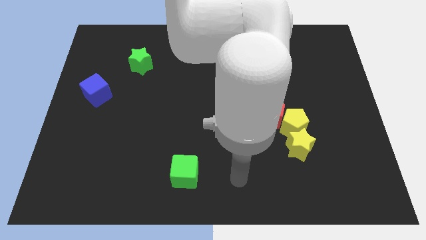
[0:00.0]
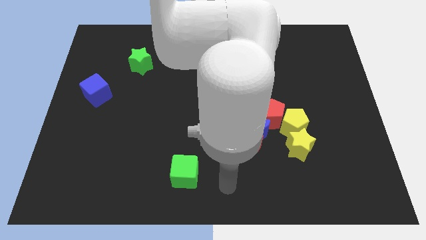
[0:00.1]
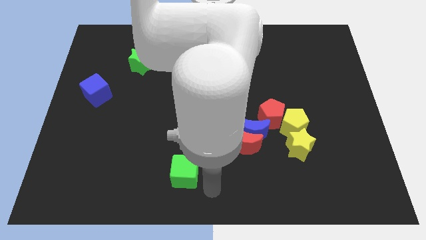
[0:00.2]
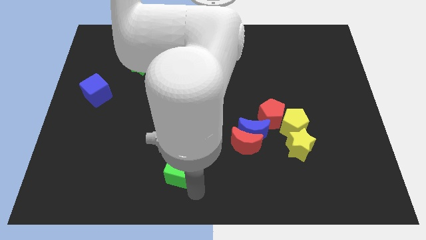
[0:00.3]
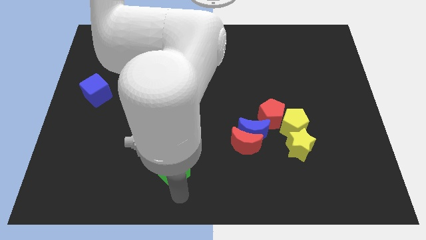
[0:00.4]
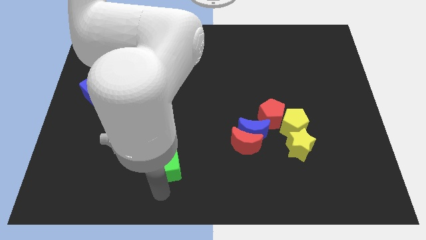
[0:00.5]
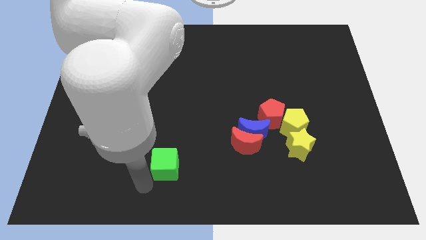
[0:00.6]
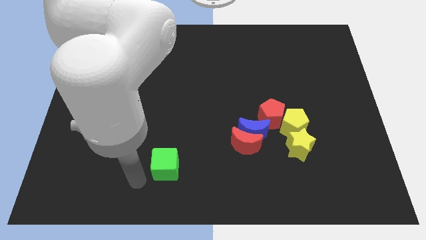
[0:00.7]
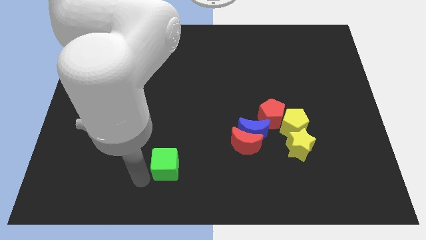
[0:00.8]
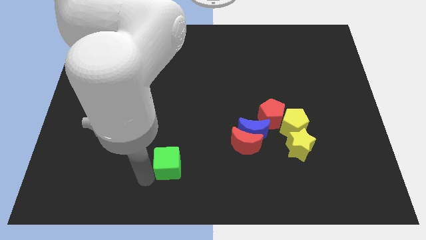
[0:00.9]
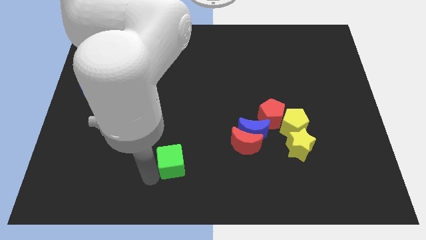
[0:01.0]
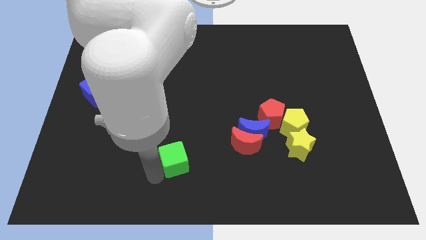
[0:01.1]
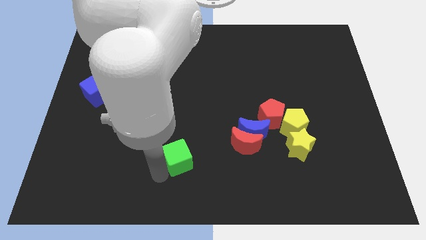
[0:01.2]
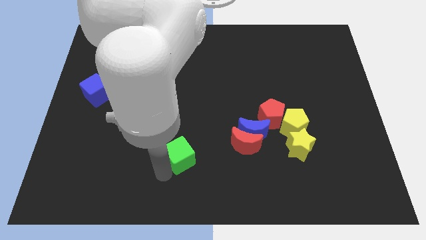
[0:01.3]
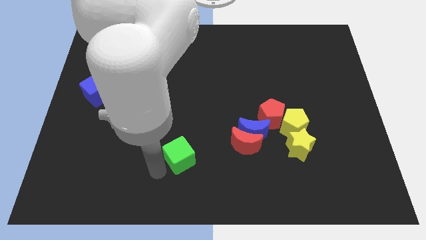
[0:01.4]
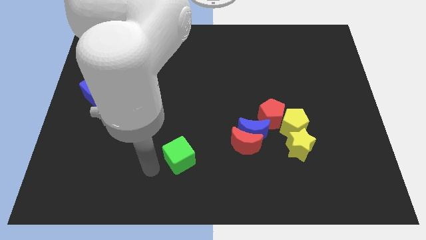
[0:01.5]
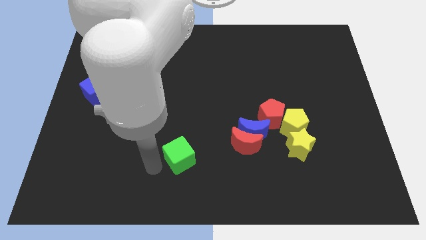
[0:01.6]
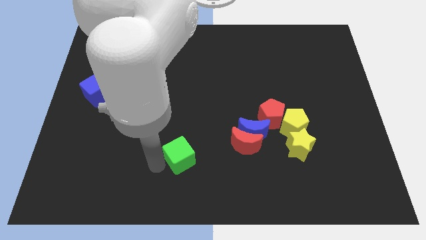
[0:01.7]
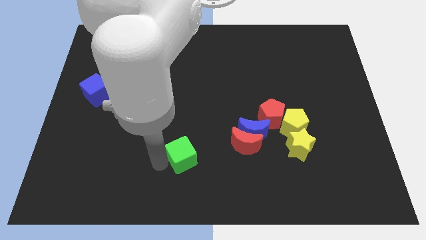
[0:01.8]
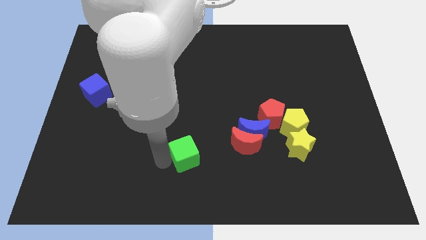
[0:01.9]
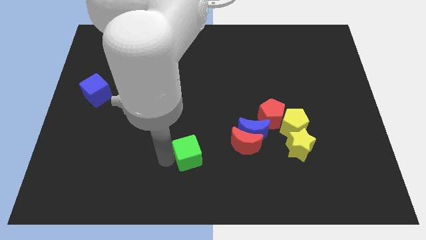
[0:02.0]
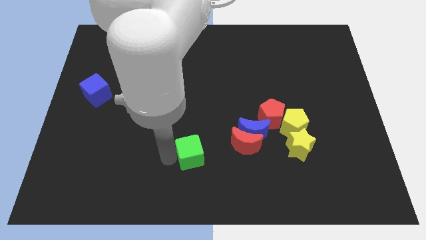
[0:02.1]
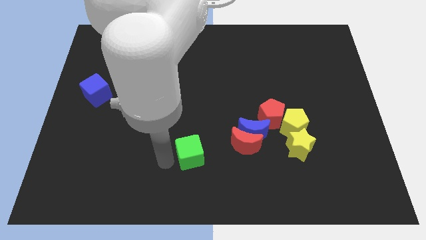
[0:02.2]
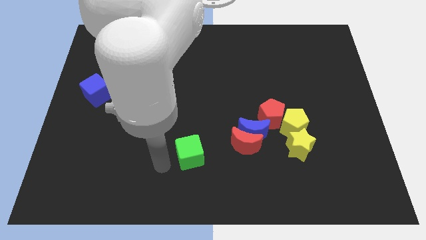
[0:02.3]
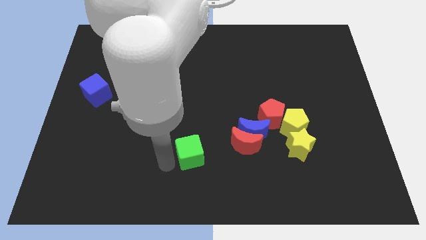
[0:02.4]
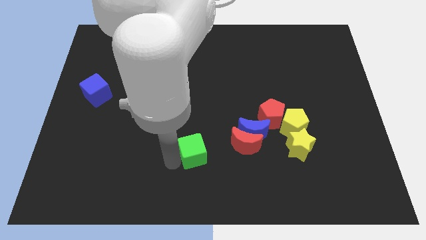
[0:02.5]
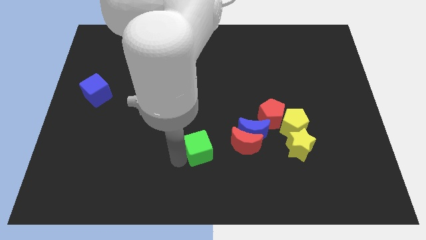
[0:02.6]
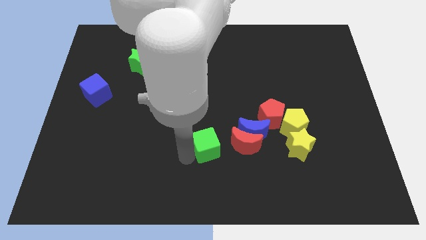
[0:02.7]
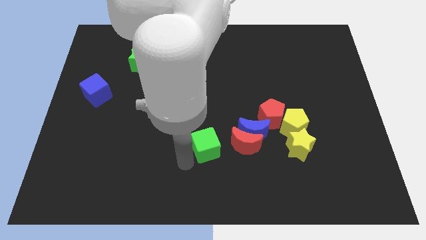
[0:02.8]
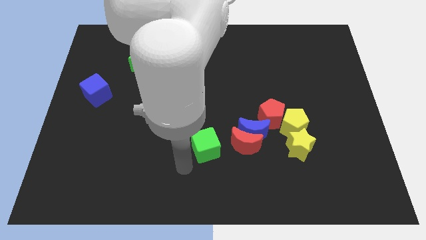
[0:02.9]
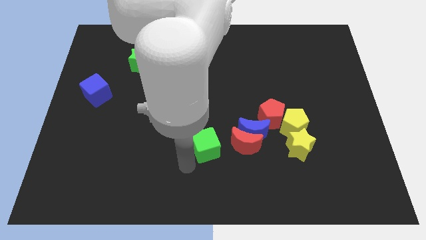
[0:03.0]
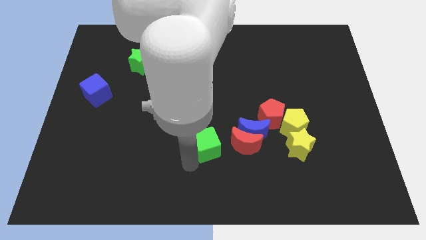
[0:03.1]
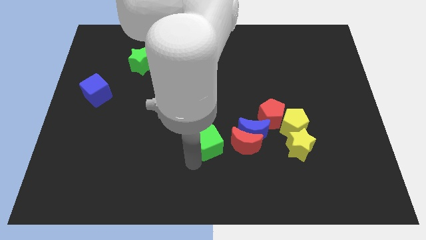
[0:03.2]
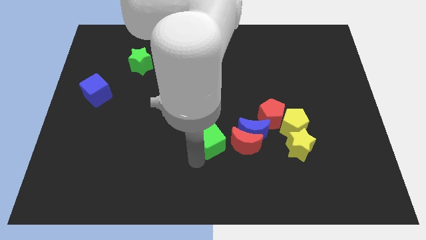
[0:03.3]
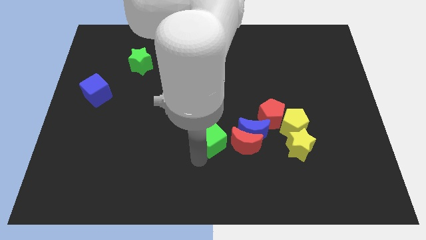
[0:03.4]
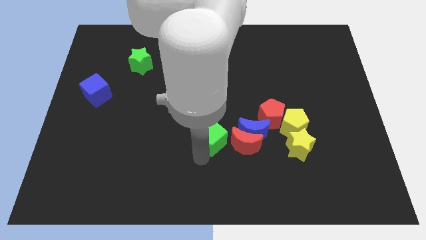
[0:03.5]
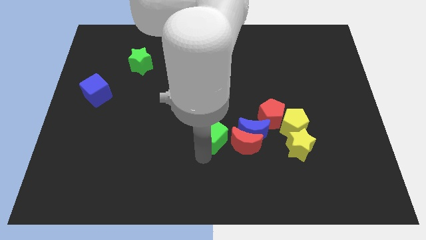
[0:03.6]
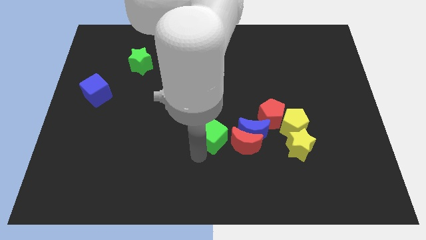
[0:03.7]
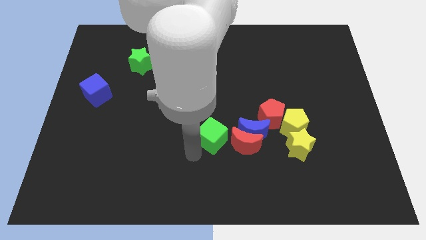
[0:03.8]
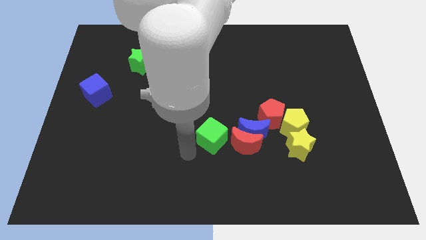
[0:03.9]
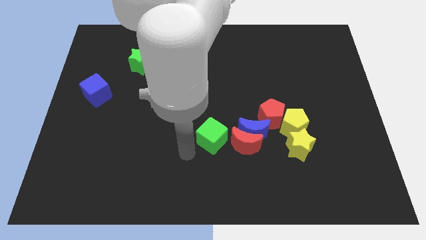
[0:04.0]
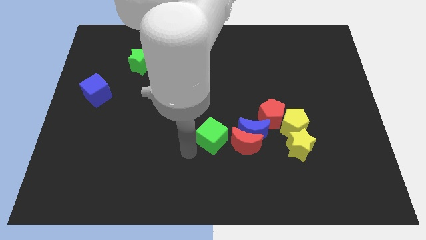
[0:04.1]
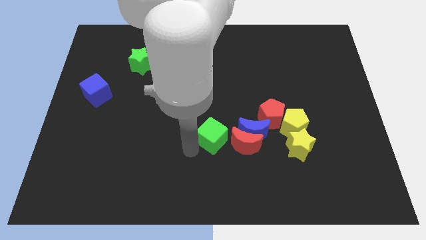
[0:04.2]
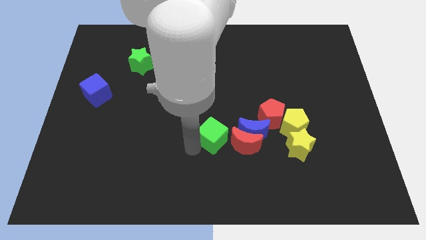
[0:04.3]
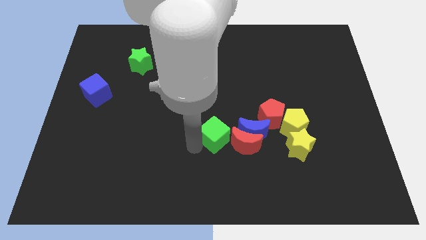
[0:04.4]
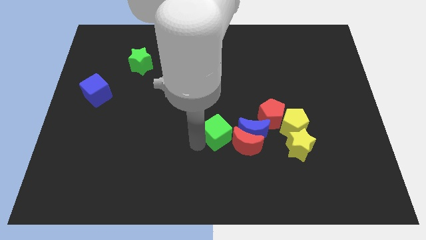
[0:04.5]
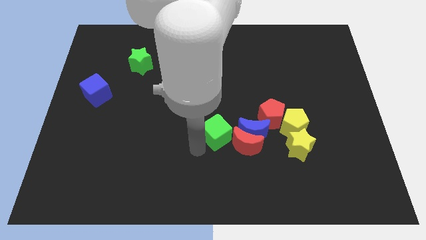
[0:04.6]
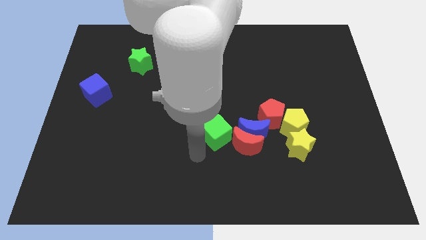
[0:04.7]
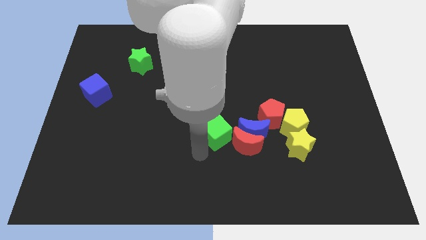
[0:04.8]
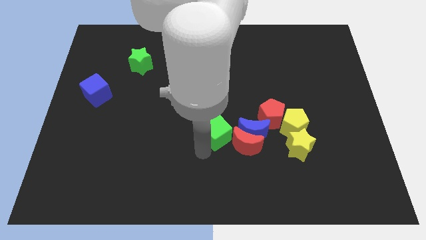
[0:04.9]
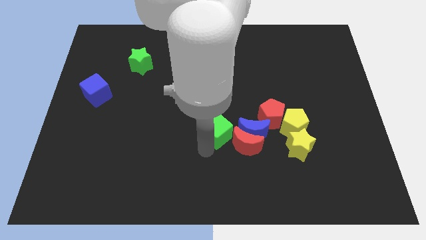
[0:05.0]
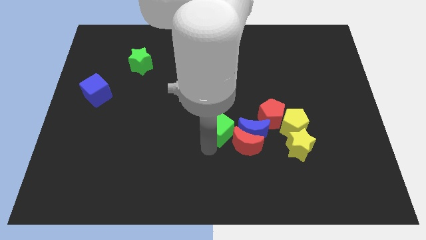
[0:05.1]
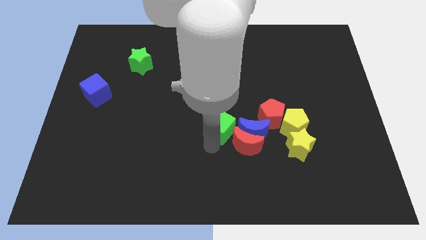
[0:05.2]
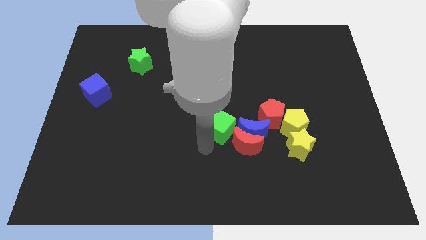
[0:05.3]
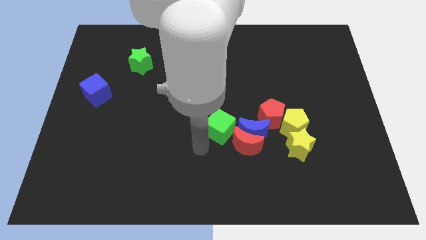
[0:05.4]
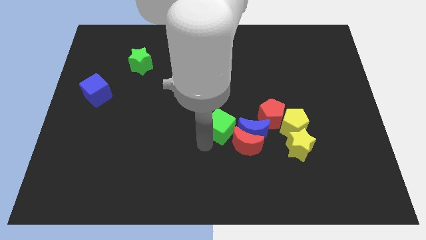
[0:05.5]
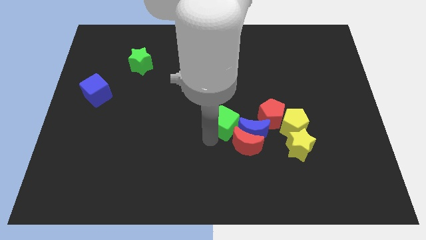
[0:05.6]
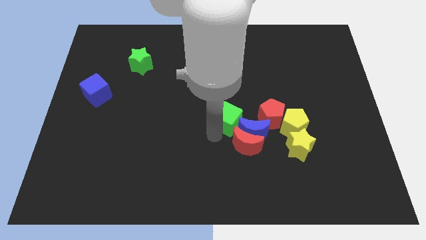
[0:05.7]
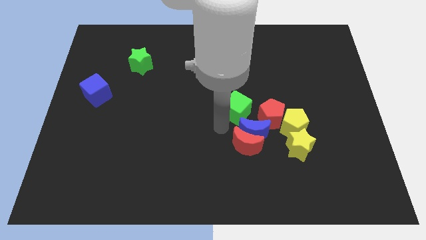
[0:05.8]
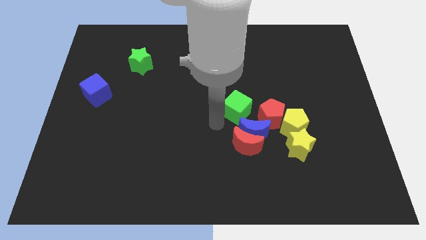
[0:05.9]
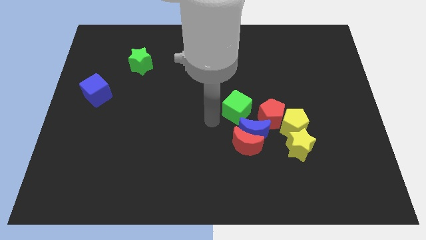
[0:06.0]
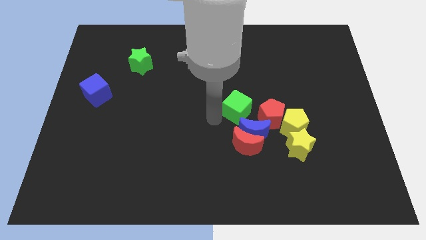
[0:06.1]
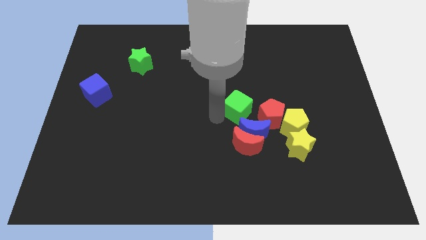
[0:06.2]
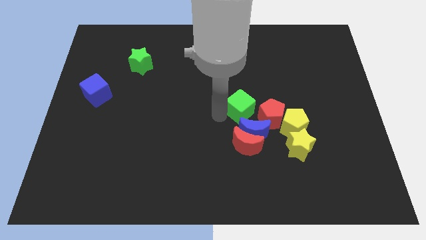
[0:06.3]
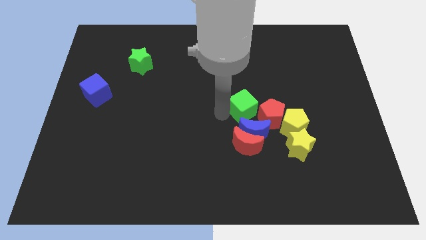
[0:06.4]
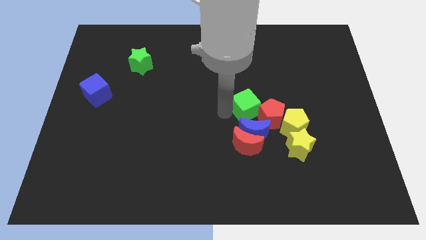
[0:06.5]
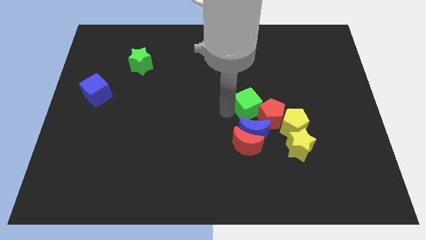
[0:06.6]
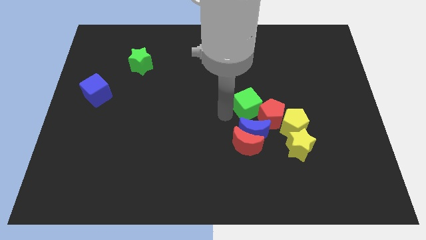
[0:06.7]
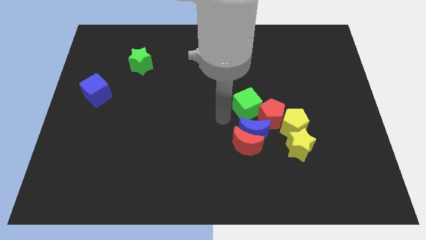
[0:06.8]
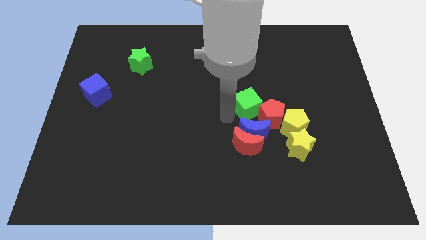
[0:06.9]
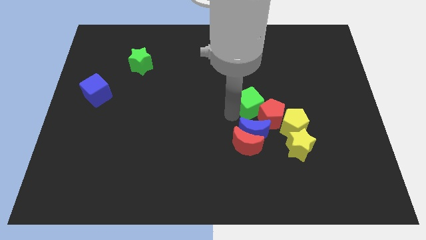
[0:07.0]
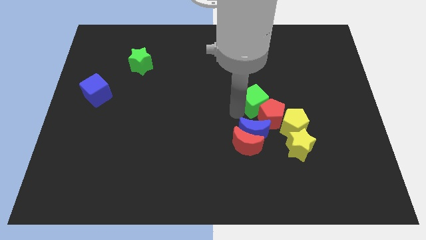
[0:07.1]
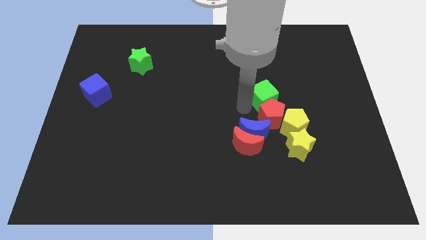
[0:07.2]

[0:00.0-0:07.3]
move the green cube to the top right of the red pentagon

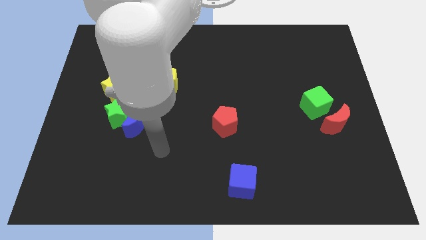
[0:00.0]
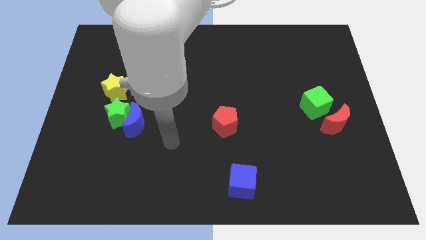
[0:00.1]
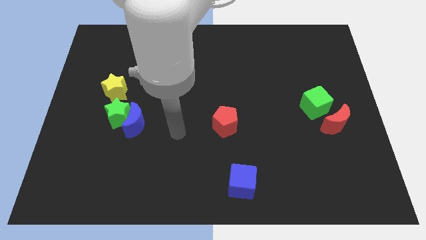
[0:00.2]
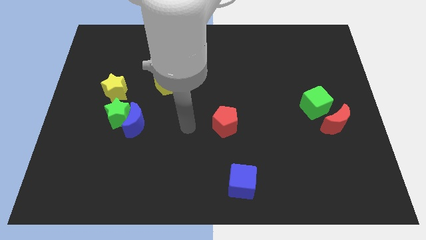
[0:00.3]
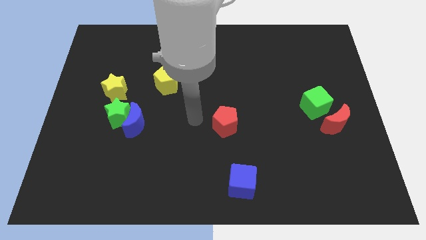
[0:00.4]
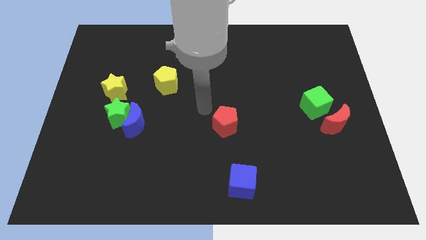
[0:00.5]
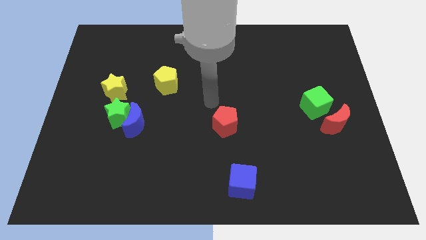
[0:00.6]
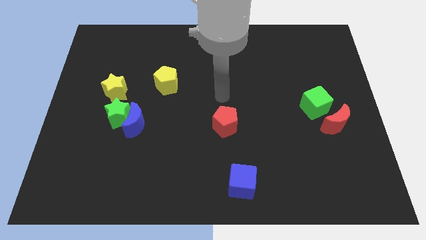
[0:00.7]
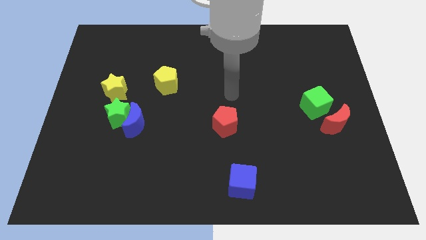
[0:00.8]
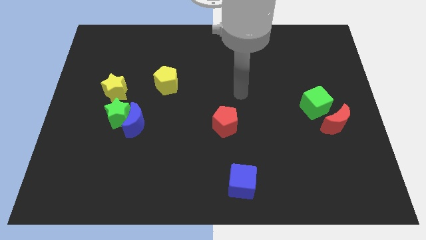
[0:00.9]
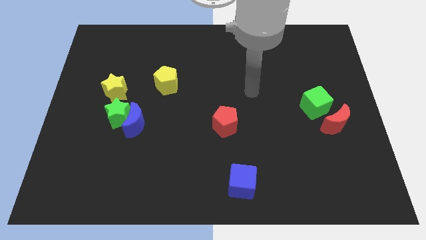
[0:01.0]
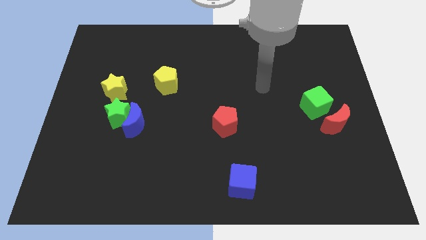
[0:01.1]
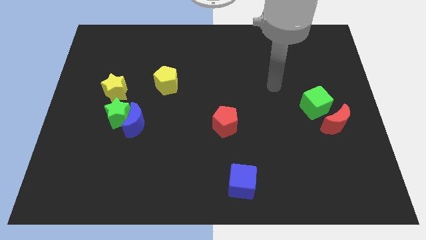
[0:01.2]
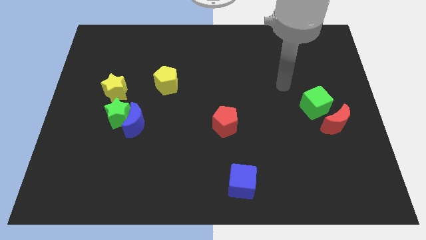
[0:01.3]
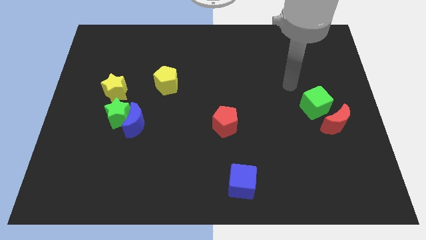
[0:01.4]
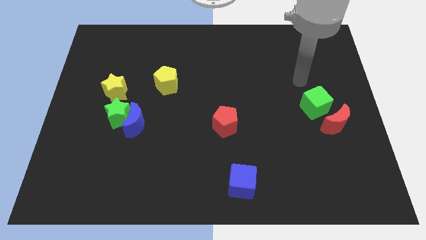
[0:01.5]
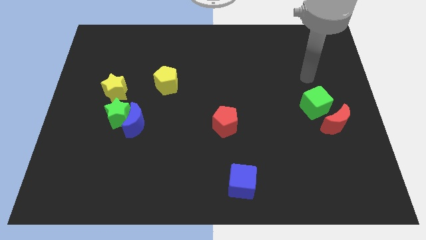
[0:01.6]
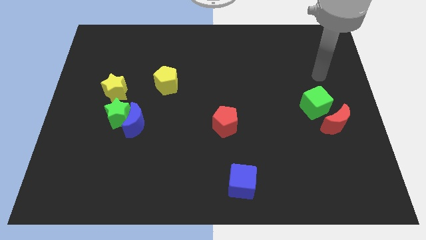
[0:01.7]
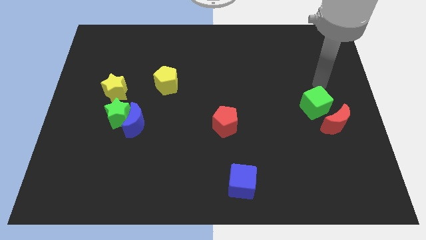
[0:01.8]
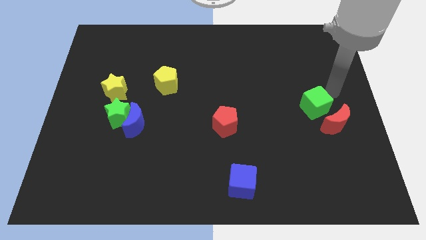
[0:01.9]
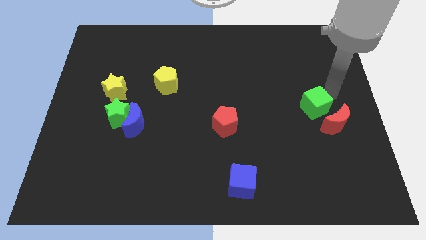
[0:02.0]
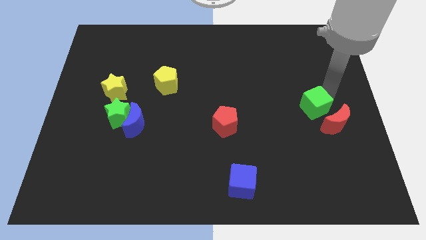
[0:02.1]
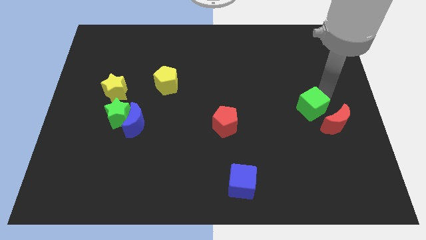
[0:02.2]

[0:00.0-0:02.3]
put the green cube left of the red moon
